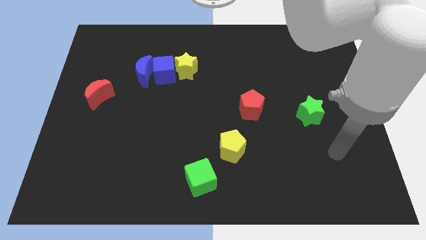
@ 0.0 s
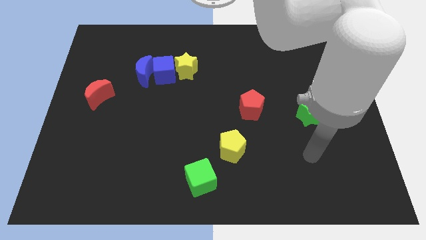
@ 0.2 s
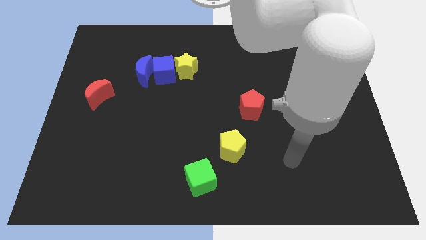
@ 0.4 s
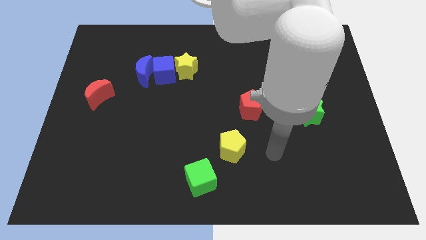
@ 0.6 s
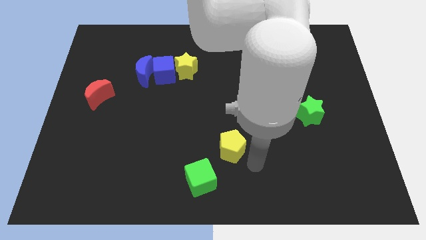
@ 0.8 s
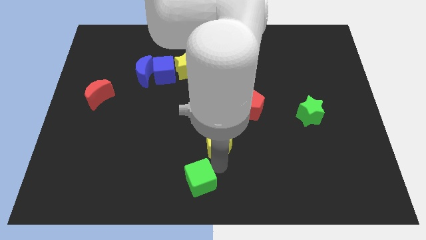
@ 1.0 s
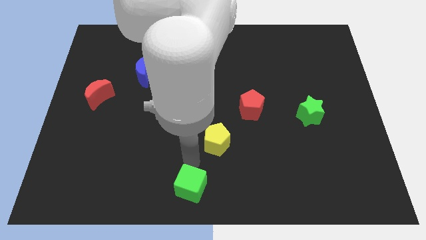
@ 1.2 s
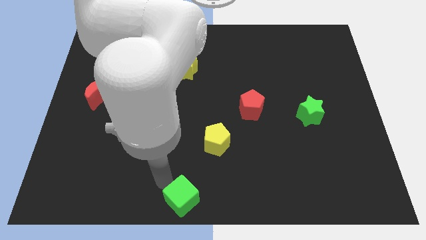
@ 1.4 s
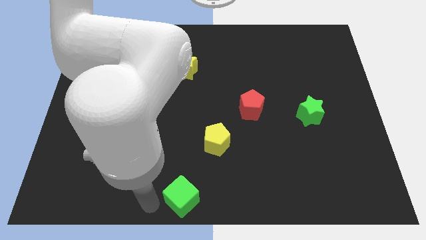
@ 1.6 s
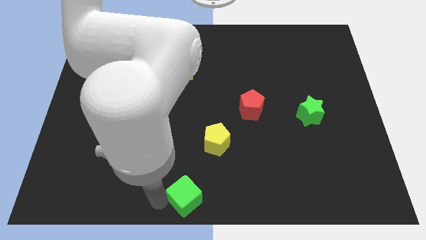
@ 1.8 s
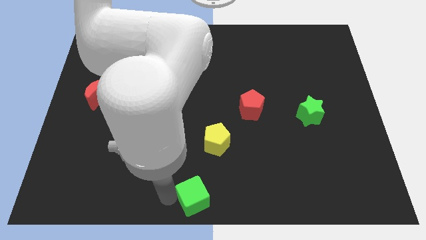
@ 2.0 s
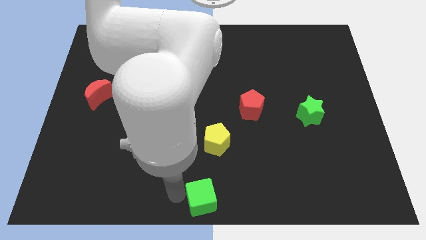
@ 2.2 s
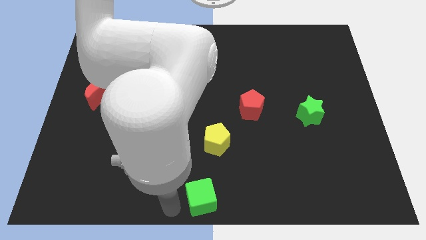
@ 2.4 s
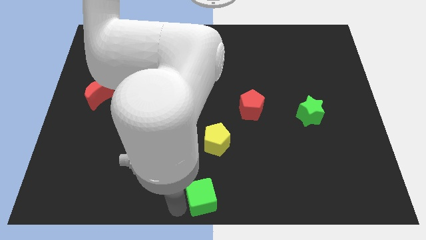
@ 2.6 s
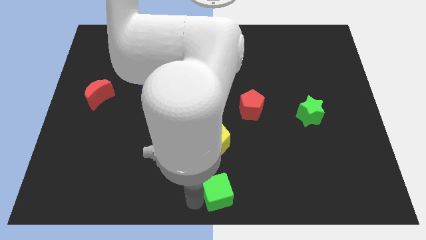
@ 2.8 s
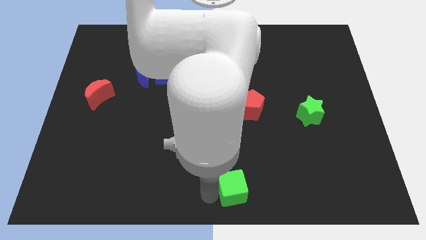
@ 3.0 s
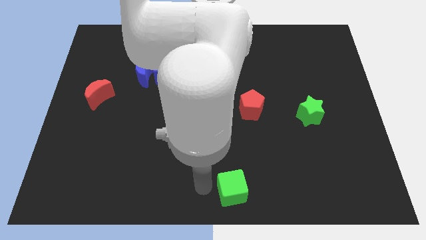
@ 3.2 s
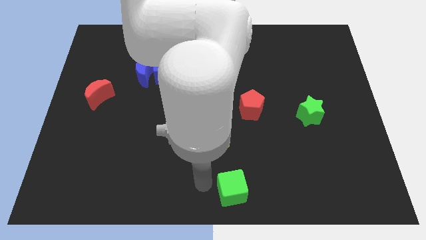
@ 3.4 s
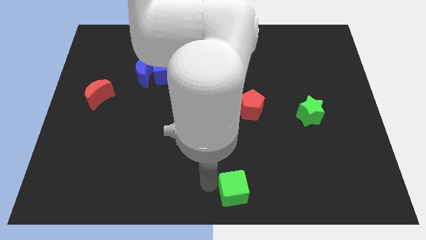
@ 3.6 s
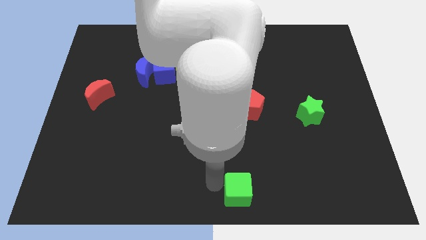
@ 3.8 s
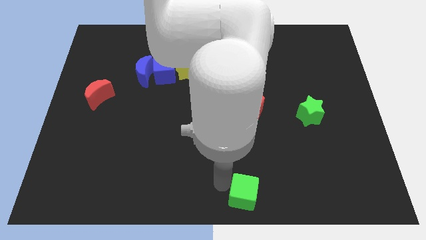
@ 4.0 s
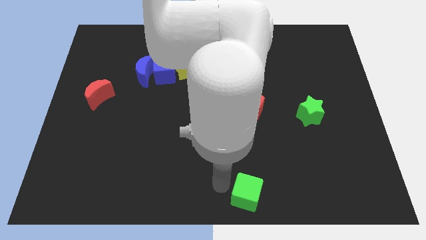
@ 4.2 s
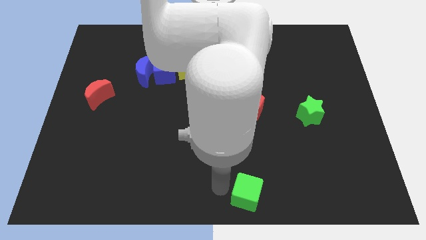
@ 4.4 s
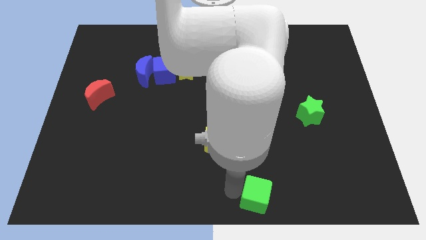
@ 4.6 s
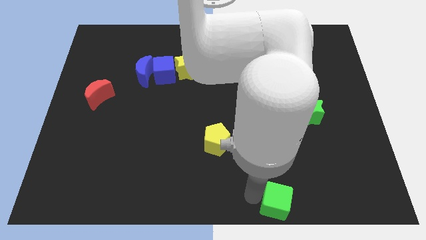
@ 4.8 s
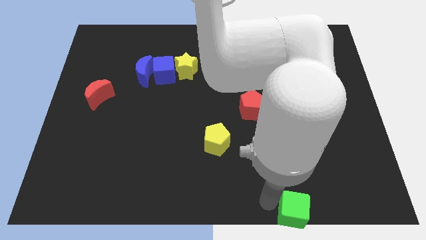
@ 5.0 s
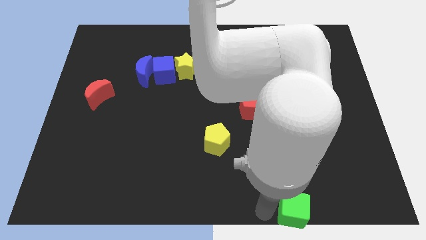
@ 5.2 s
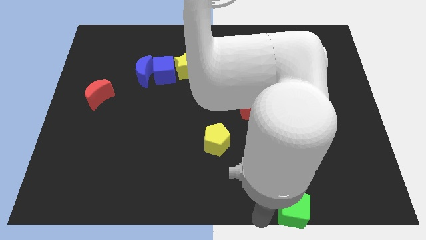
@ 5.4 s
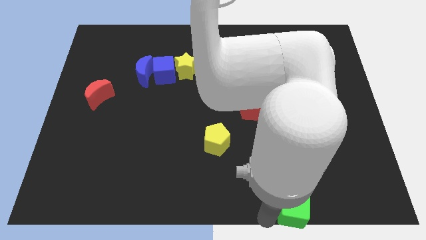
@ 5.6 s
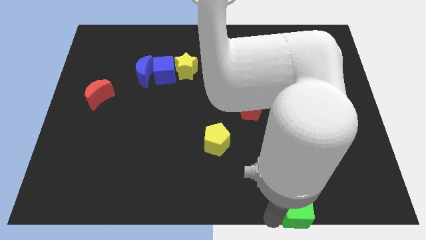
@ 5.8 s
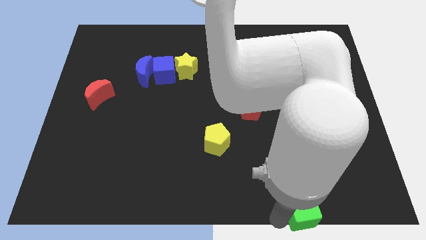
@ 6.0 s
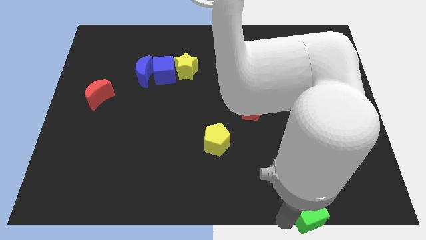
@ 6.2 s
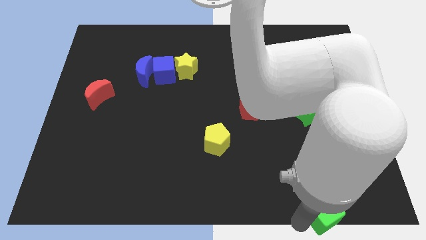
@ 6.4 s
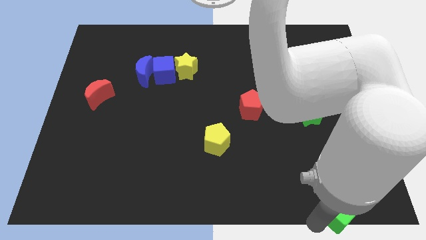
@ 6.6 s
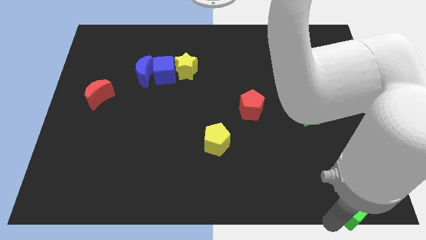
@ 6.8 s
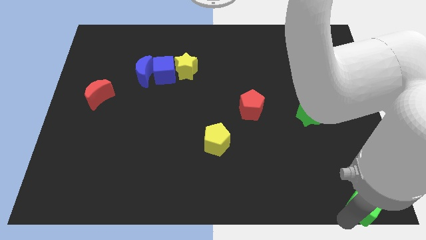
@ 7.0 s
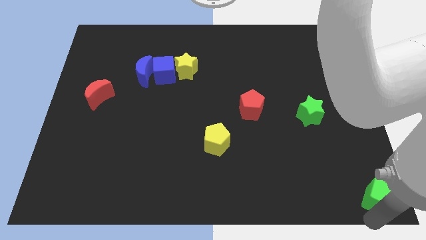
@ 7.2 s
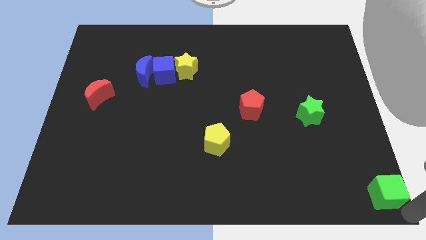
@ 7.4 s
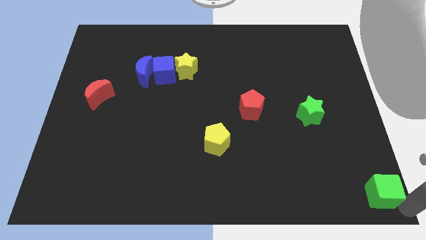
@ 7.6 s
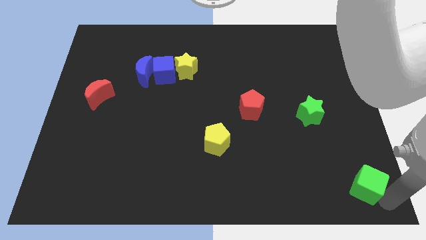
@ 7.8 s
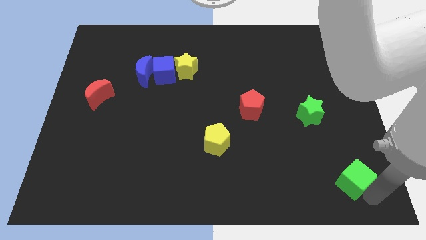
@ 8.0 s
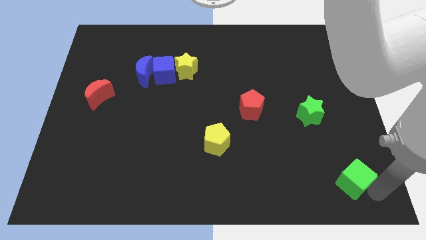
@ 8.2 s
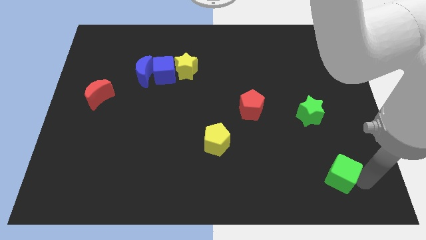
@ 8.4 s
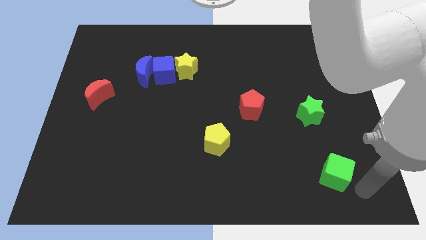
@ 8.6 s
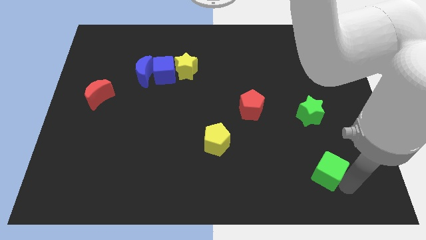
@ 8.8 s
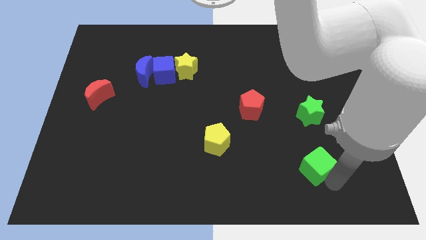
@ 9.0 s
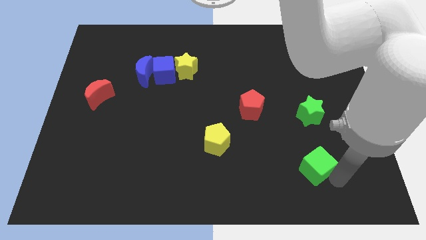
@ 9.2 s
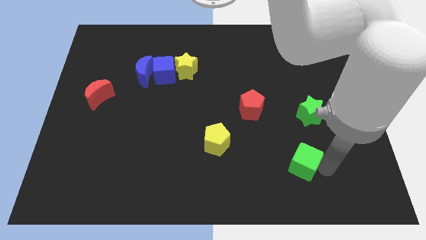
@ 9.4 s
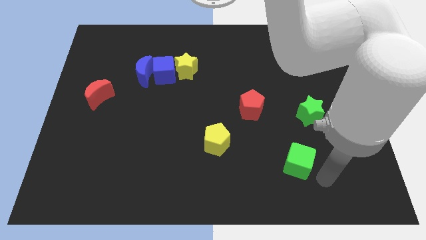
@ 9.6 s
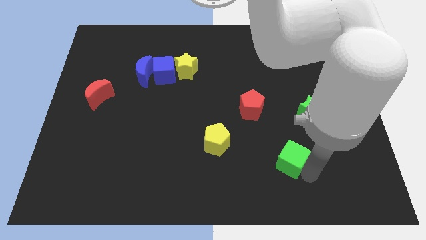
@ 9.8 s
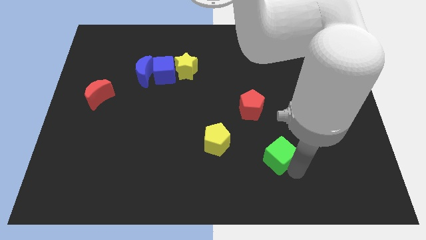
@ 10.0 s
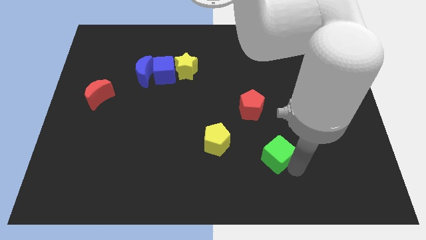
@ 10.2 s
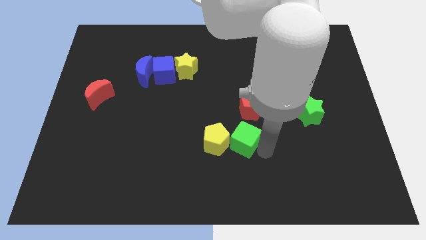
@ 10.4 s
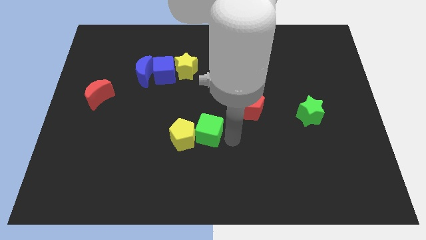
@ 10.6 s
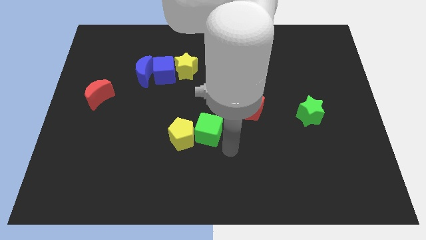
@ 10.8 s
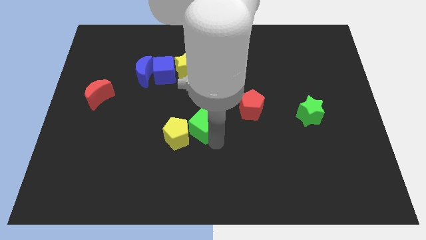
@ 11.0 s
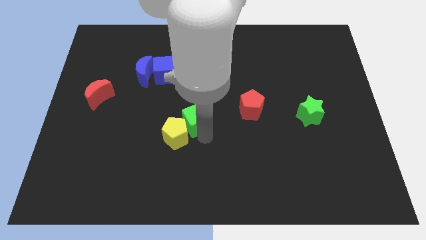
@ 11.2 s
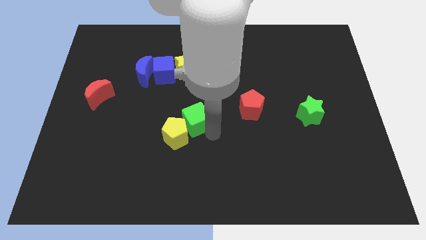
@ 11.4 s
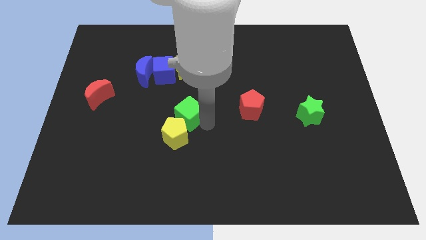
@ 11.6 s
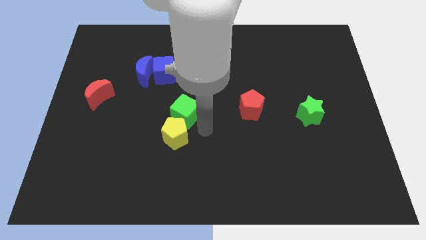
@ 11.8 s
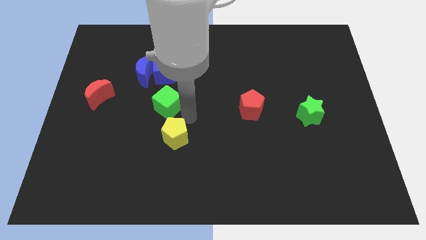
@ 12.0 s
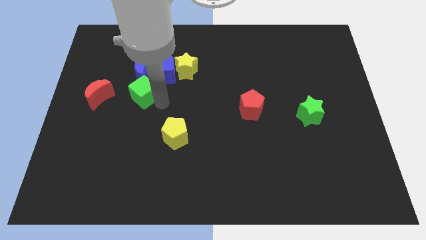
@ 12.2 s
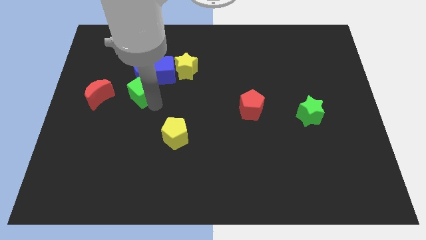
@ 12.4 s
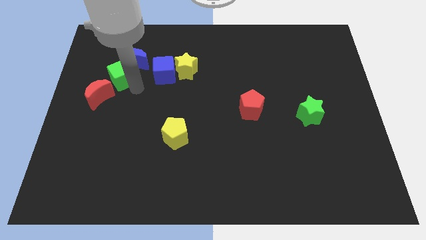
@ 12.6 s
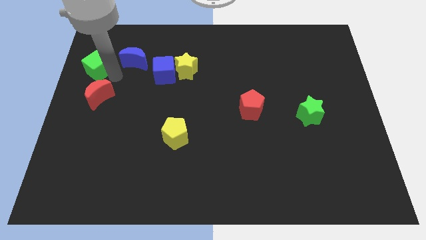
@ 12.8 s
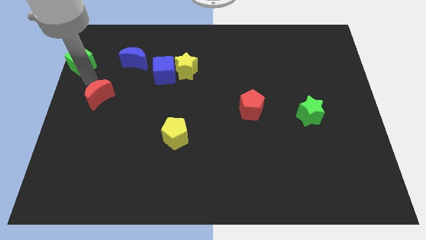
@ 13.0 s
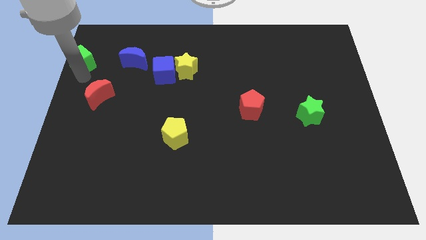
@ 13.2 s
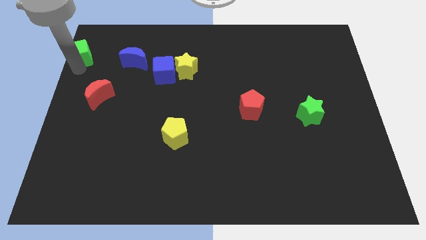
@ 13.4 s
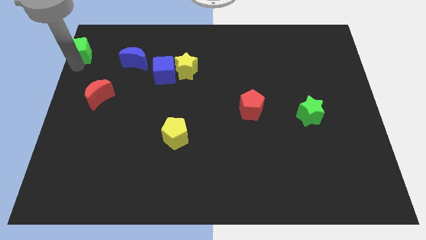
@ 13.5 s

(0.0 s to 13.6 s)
put the green cube to the upper left corner
